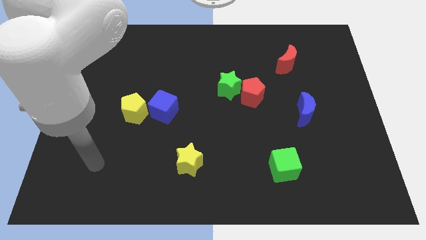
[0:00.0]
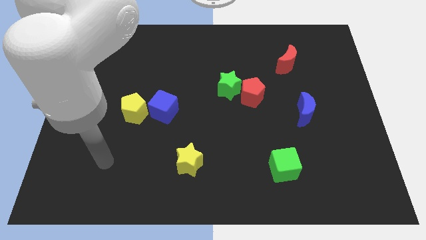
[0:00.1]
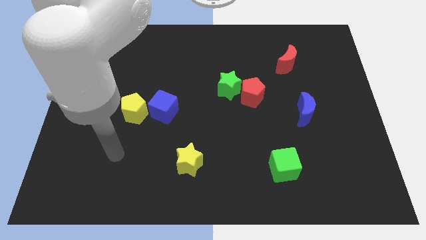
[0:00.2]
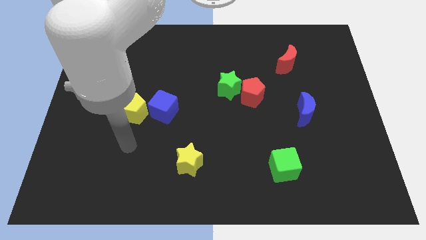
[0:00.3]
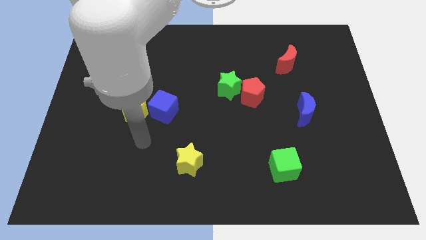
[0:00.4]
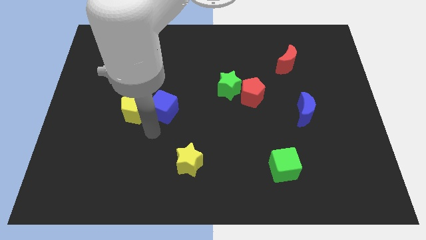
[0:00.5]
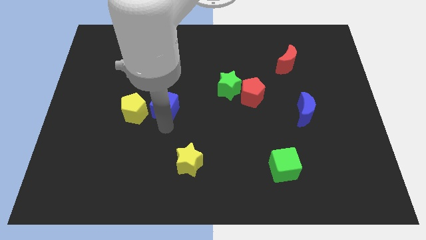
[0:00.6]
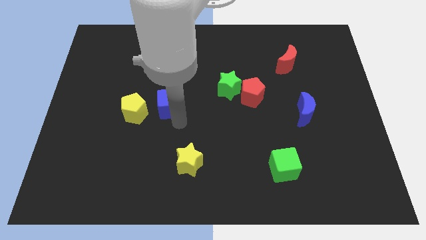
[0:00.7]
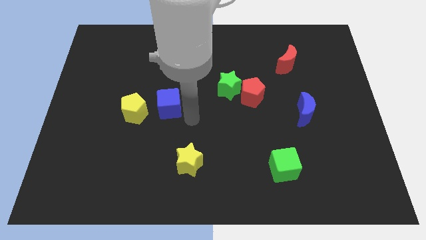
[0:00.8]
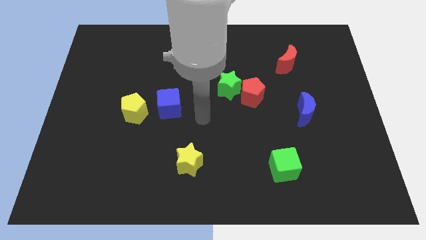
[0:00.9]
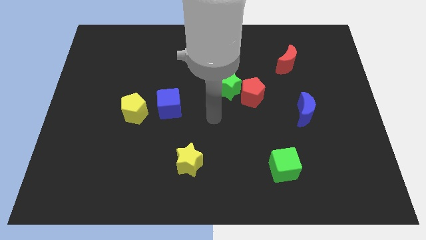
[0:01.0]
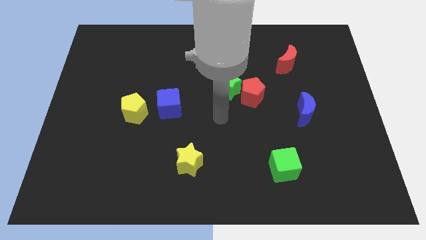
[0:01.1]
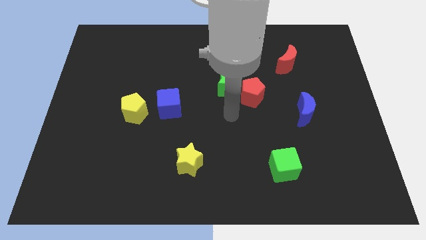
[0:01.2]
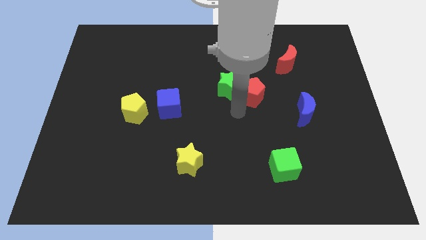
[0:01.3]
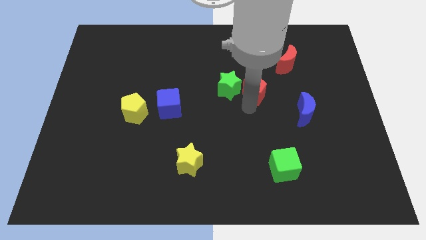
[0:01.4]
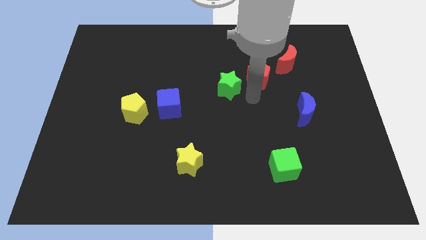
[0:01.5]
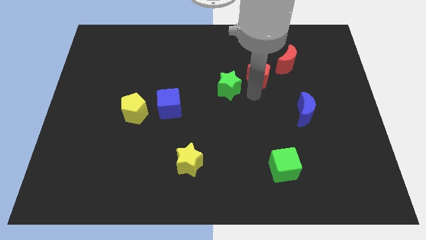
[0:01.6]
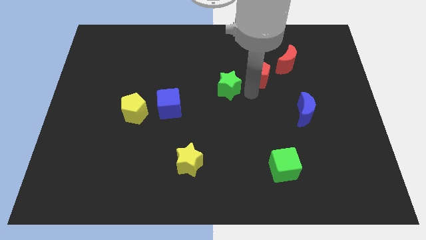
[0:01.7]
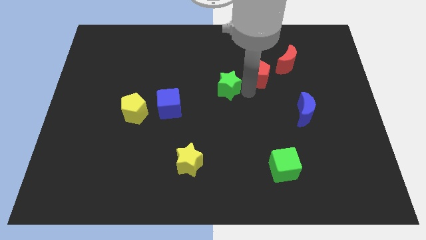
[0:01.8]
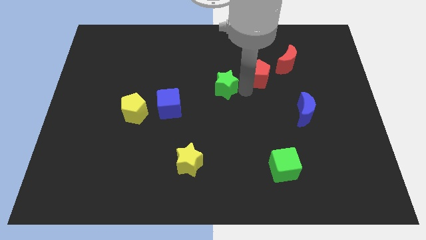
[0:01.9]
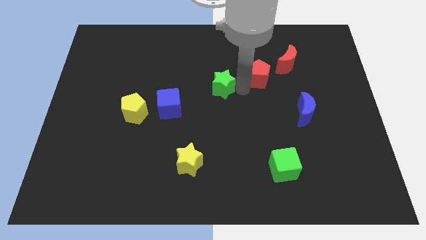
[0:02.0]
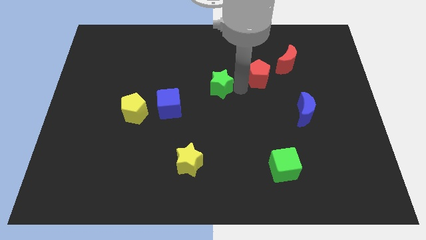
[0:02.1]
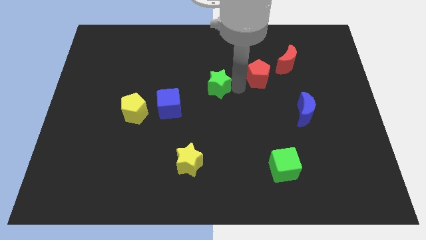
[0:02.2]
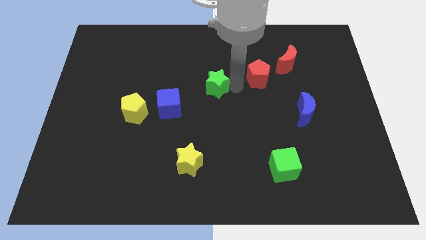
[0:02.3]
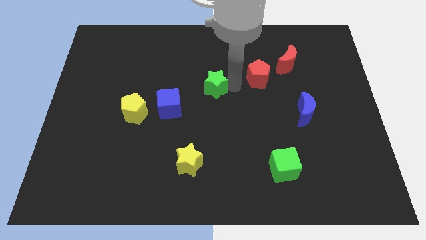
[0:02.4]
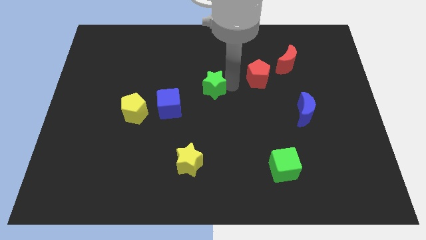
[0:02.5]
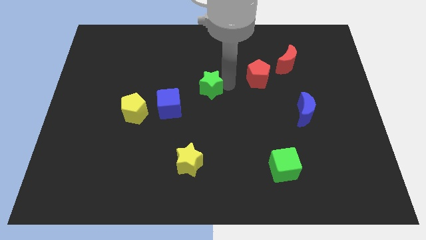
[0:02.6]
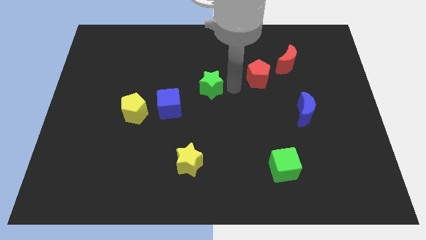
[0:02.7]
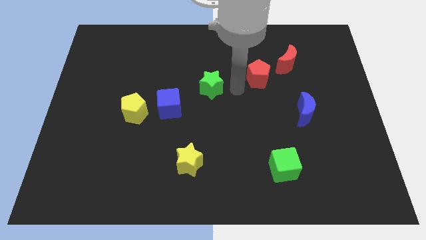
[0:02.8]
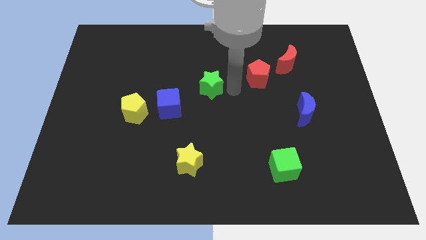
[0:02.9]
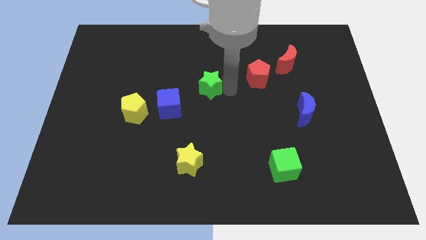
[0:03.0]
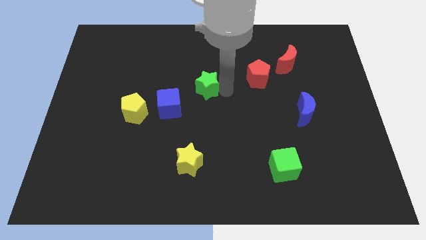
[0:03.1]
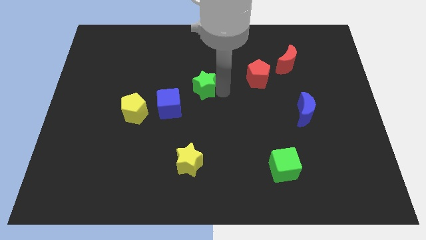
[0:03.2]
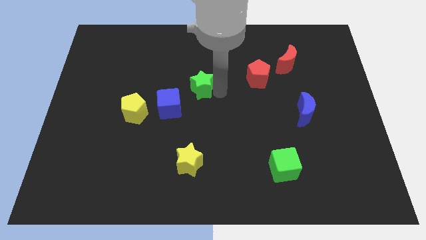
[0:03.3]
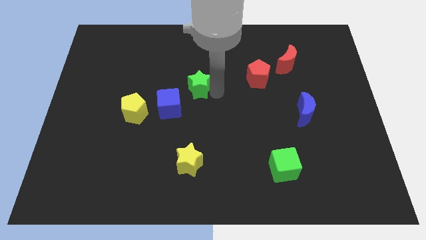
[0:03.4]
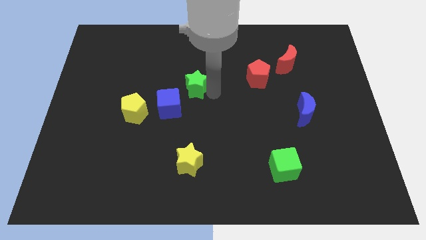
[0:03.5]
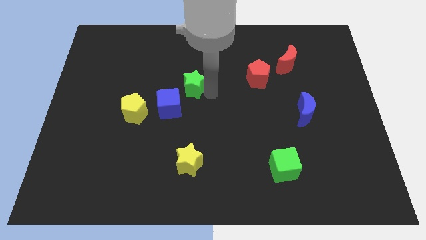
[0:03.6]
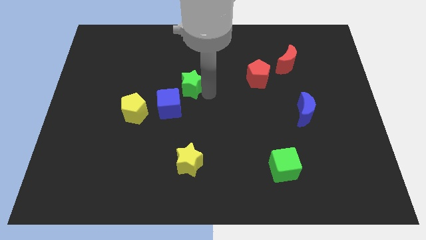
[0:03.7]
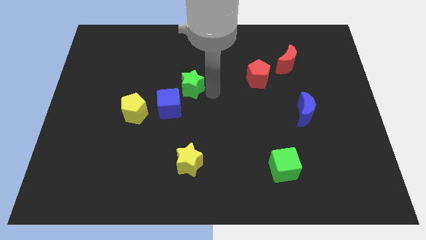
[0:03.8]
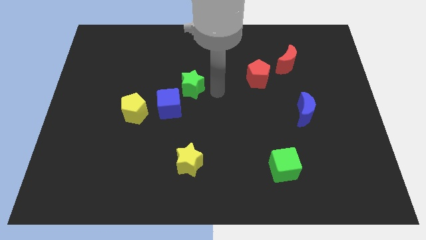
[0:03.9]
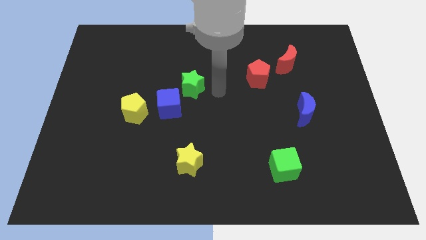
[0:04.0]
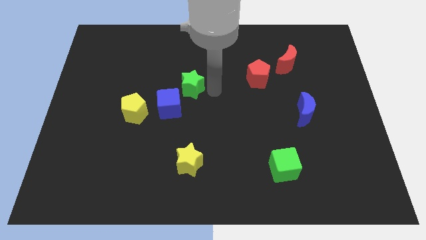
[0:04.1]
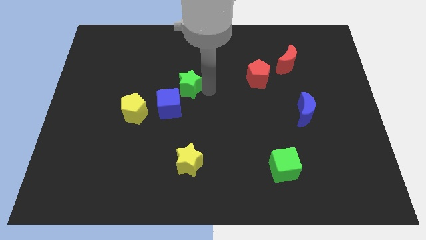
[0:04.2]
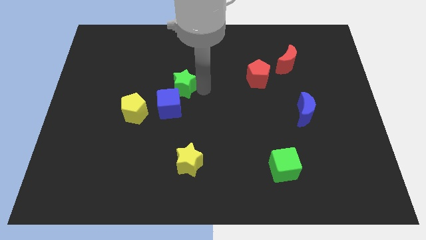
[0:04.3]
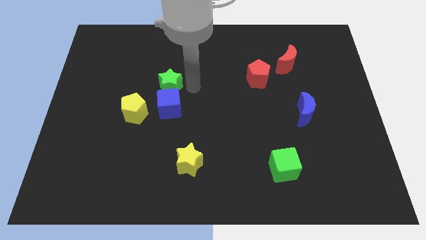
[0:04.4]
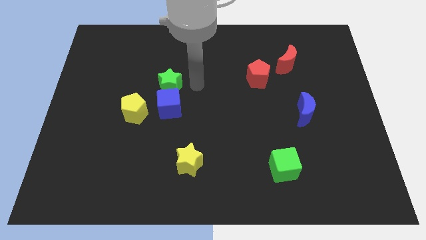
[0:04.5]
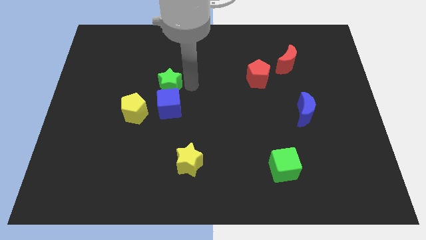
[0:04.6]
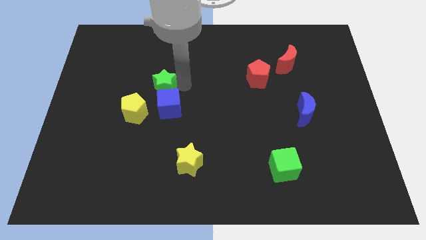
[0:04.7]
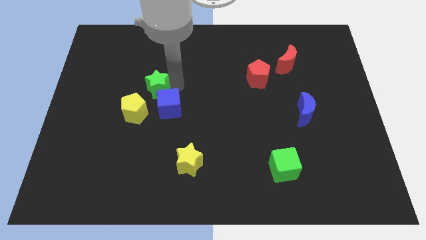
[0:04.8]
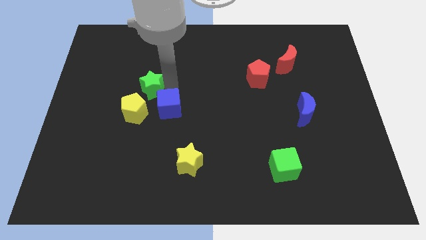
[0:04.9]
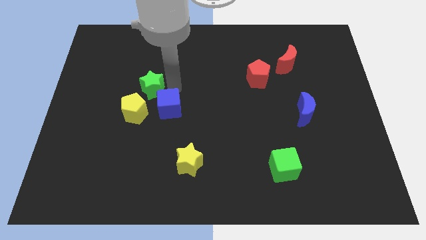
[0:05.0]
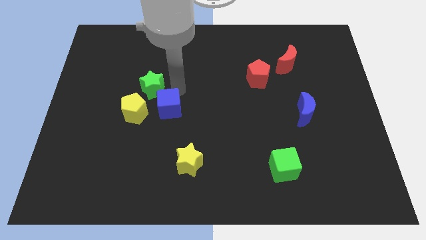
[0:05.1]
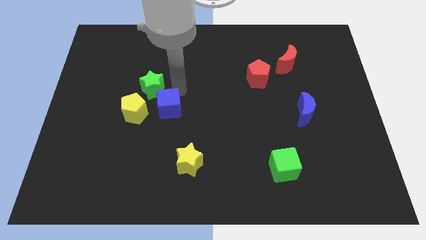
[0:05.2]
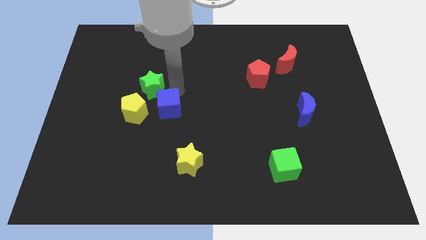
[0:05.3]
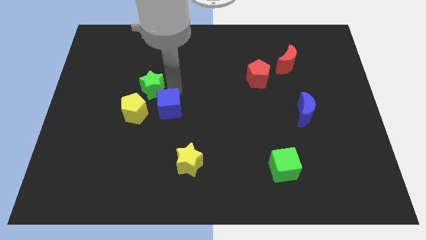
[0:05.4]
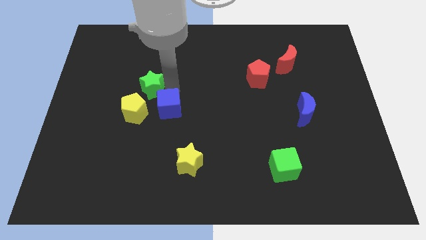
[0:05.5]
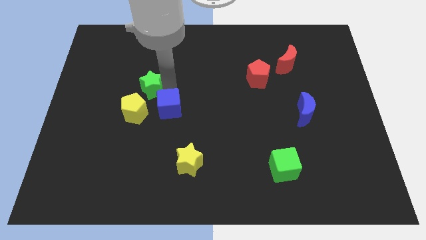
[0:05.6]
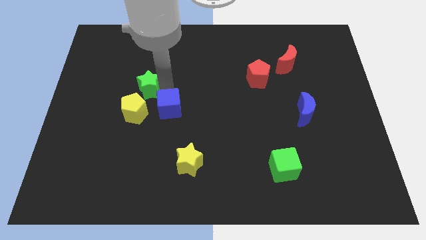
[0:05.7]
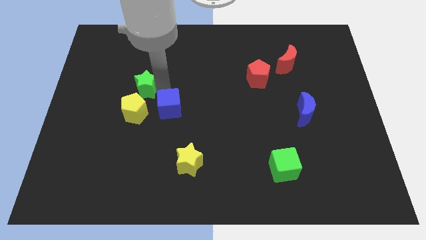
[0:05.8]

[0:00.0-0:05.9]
slide the green star to the left

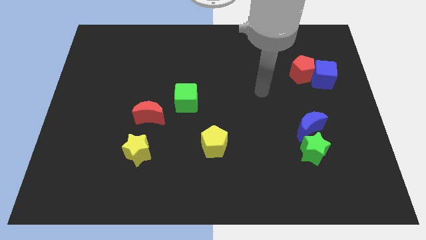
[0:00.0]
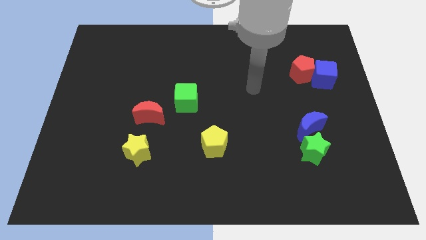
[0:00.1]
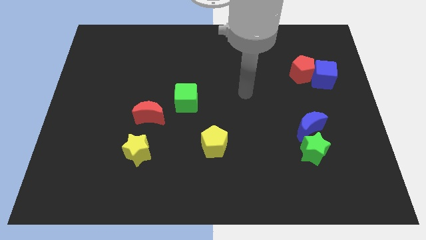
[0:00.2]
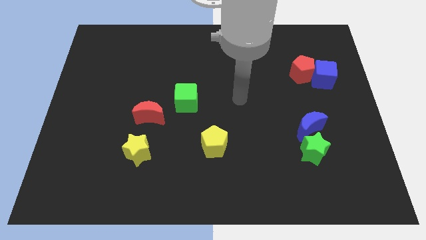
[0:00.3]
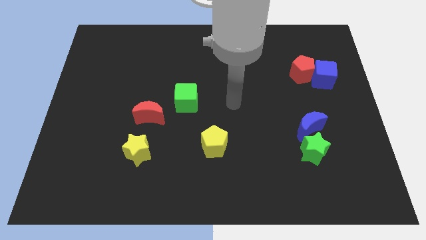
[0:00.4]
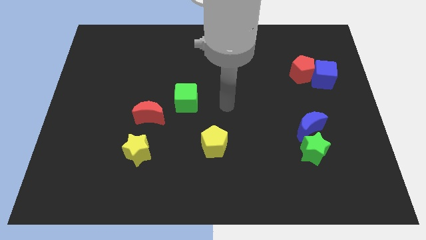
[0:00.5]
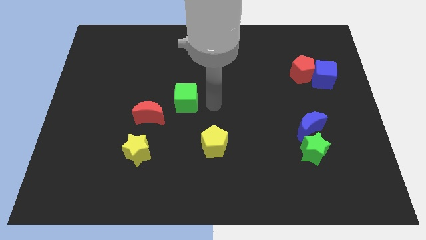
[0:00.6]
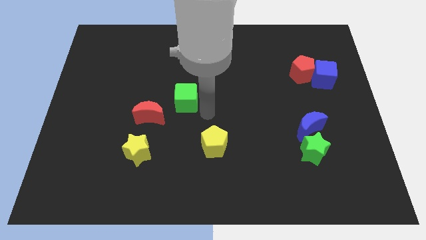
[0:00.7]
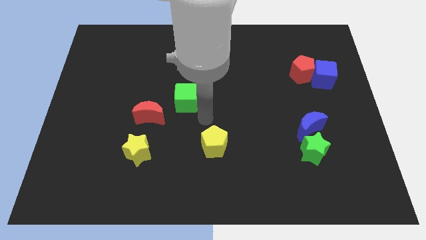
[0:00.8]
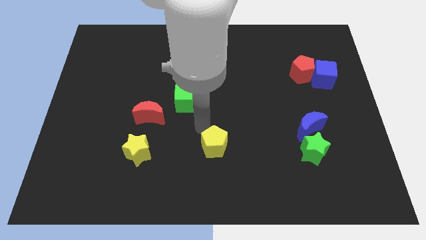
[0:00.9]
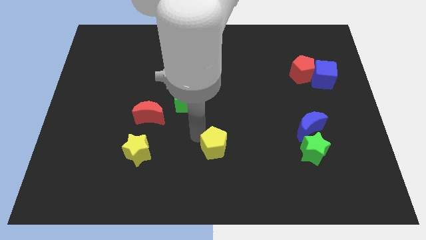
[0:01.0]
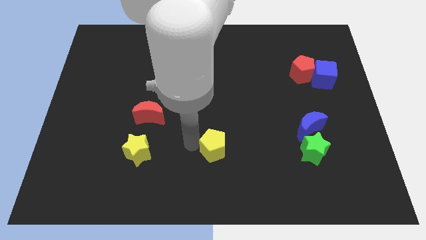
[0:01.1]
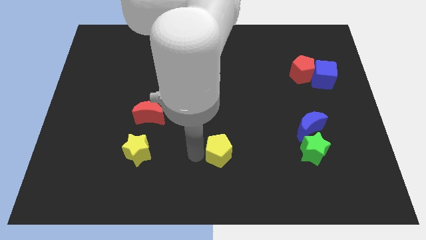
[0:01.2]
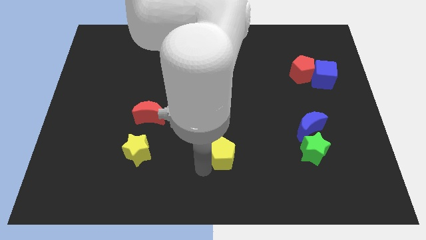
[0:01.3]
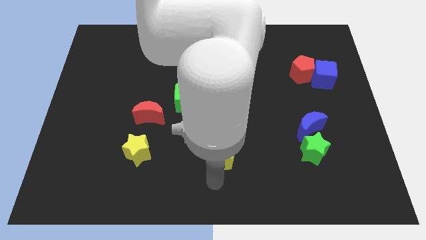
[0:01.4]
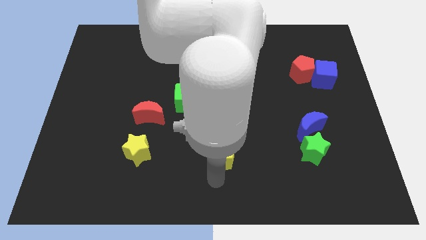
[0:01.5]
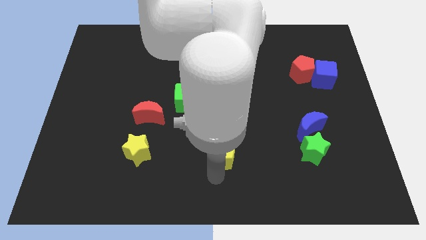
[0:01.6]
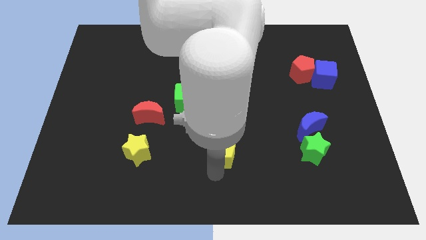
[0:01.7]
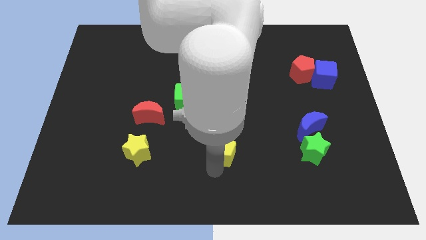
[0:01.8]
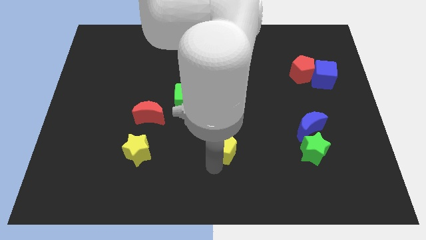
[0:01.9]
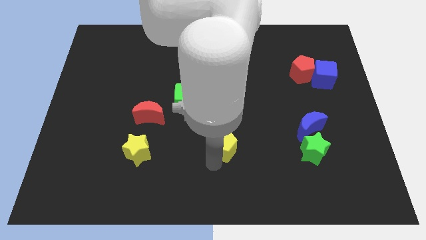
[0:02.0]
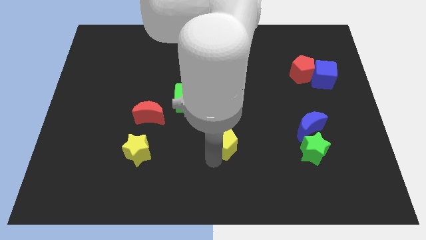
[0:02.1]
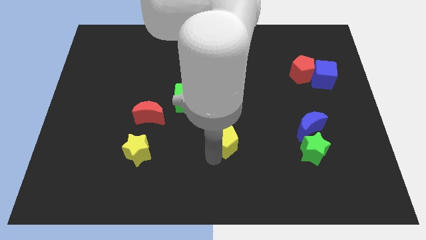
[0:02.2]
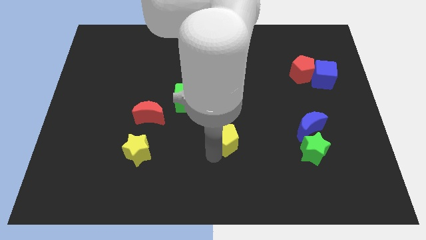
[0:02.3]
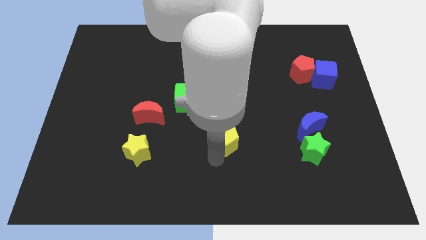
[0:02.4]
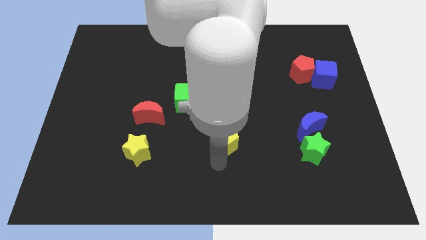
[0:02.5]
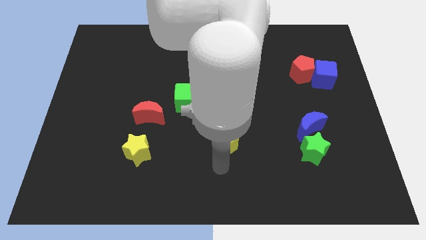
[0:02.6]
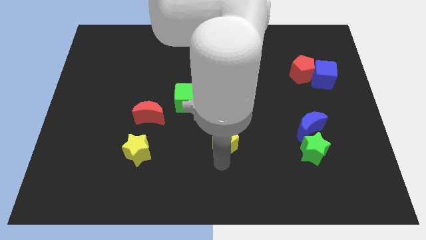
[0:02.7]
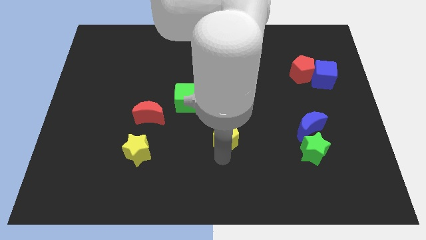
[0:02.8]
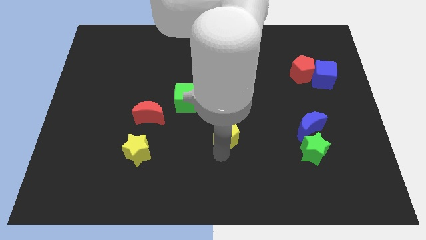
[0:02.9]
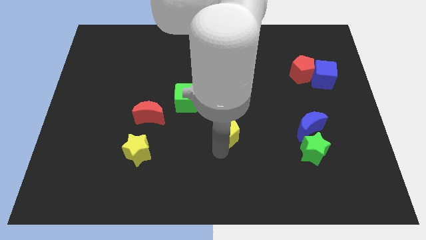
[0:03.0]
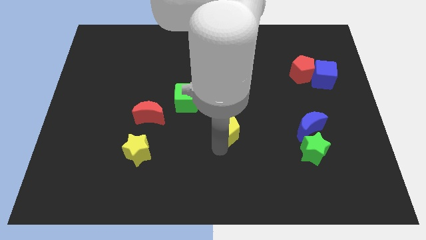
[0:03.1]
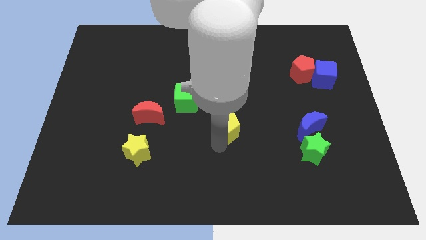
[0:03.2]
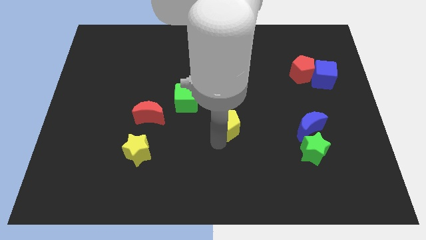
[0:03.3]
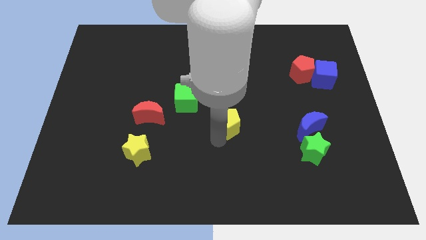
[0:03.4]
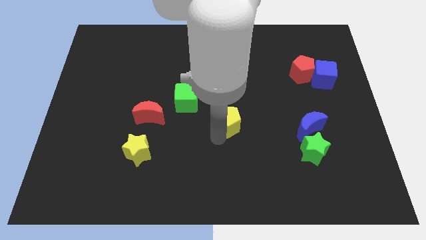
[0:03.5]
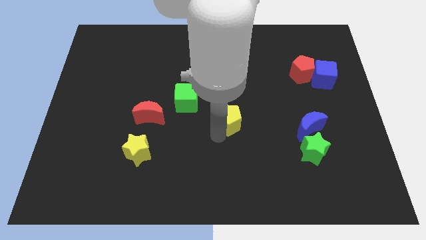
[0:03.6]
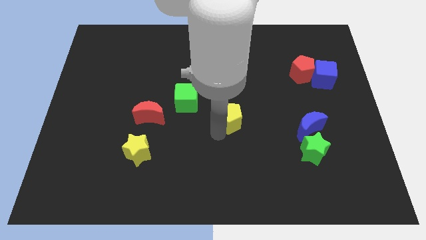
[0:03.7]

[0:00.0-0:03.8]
slightly push the yellow pentagon upwards and to the right
